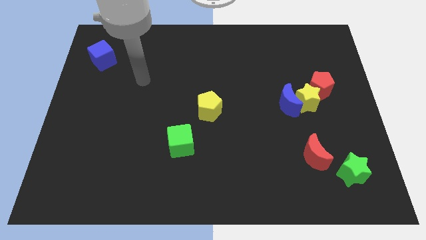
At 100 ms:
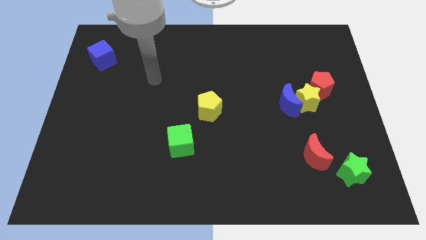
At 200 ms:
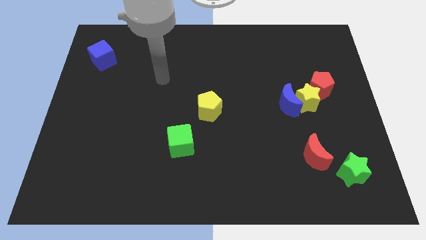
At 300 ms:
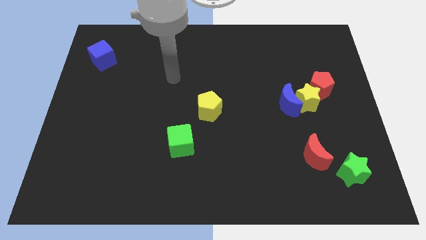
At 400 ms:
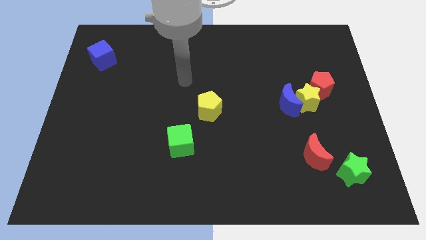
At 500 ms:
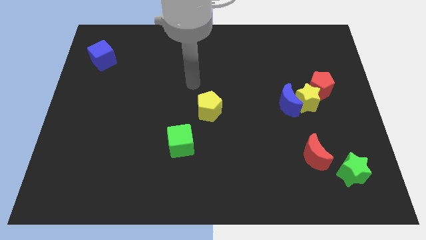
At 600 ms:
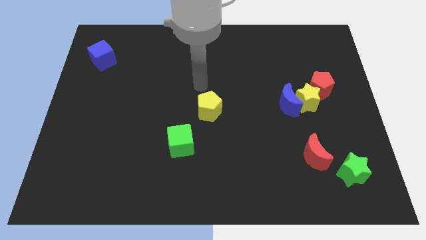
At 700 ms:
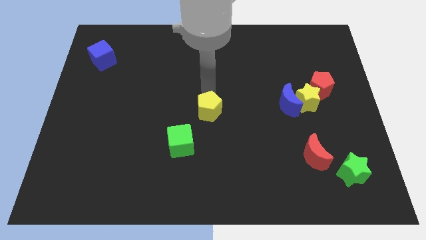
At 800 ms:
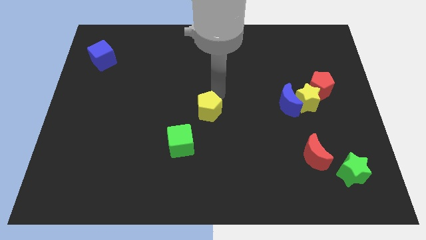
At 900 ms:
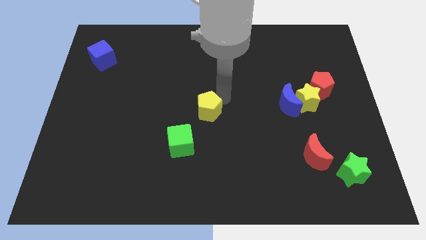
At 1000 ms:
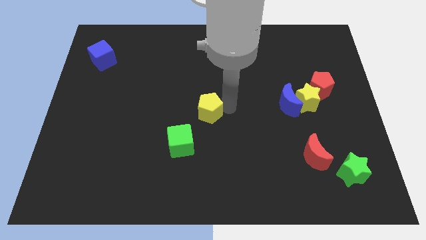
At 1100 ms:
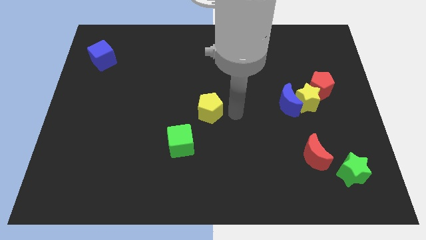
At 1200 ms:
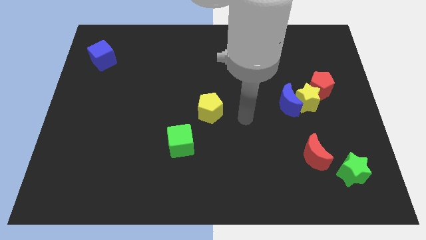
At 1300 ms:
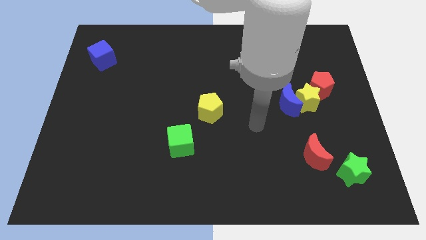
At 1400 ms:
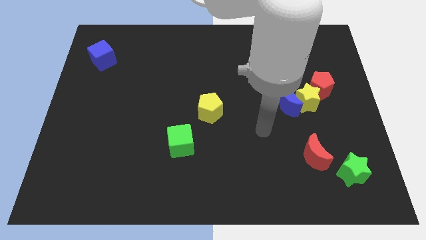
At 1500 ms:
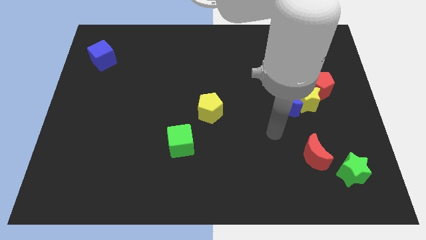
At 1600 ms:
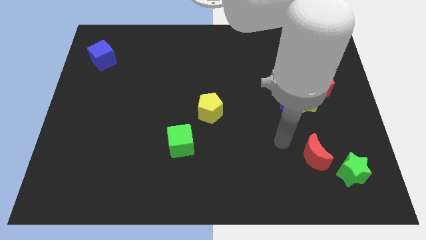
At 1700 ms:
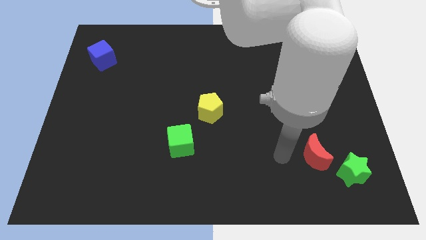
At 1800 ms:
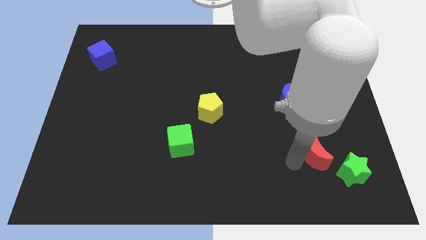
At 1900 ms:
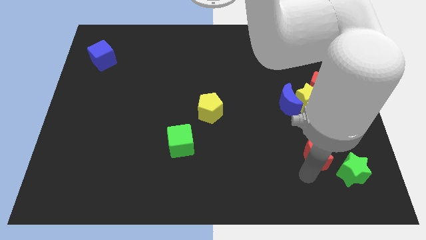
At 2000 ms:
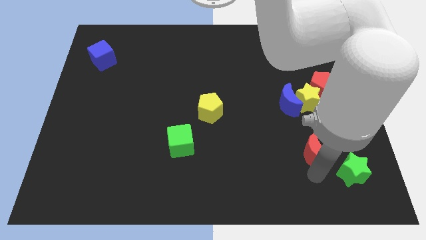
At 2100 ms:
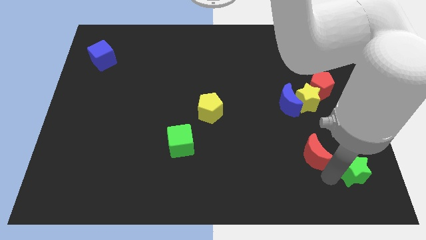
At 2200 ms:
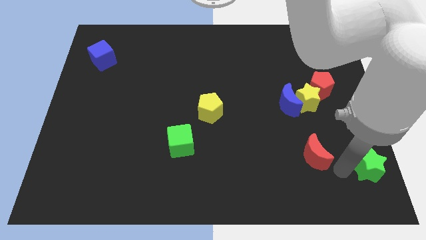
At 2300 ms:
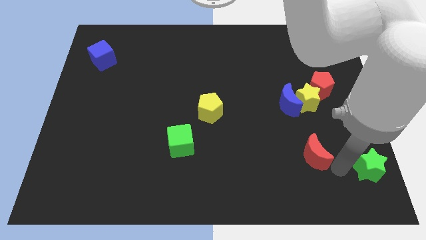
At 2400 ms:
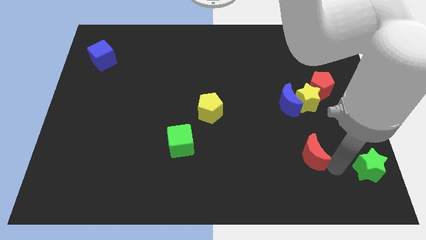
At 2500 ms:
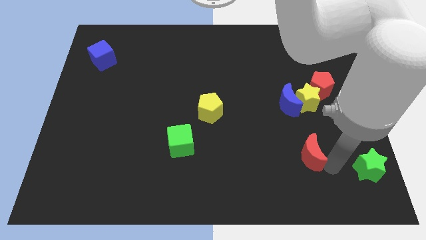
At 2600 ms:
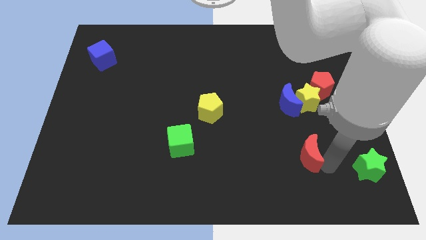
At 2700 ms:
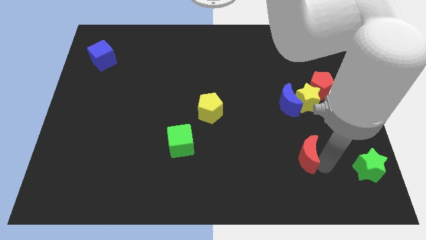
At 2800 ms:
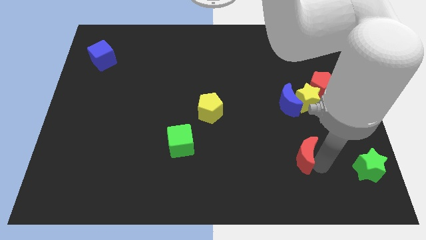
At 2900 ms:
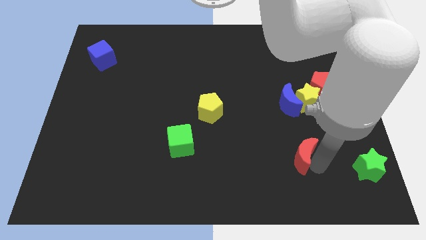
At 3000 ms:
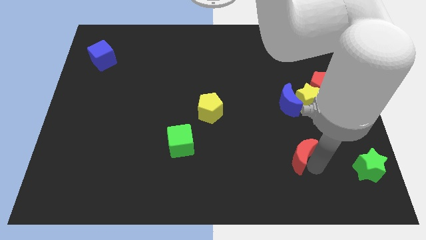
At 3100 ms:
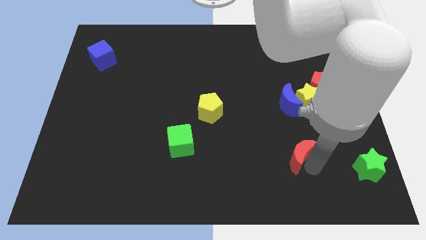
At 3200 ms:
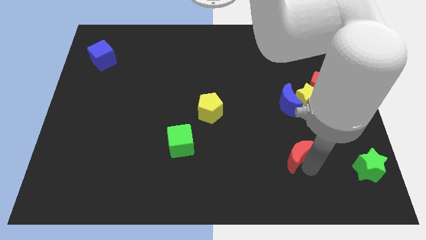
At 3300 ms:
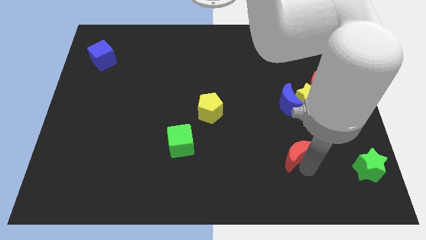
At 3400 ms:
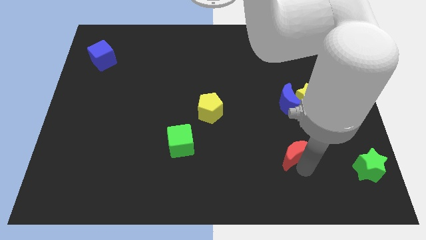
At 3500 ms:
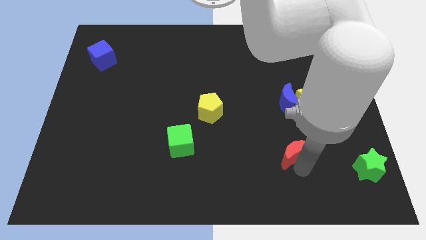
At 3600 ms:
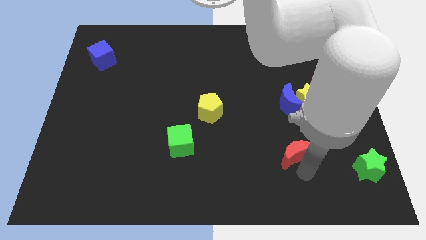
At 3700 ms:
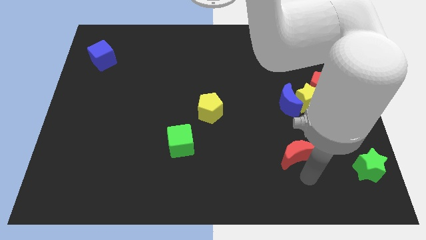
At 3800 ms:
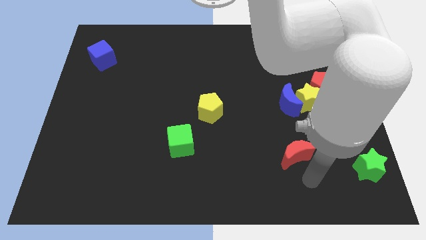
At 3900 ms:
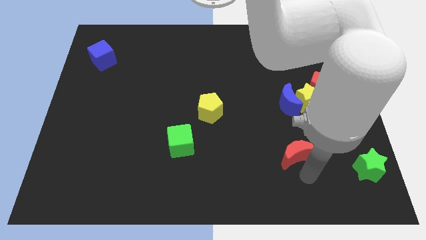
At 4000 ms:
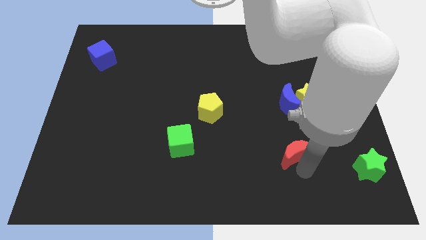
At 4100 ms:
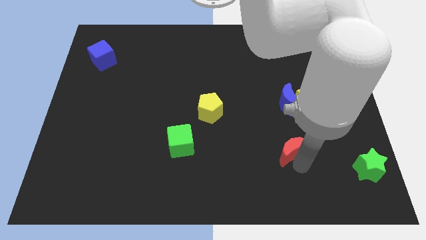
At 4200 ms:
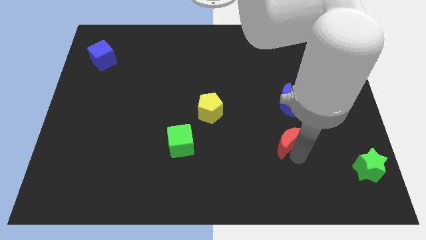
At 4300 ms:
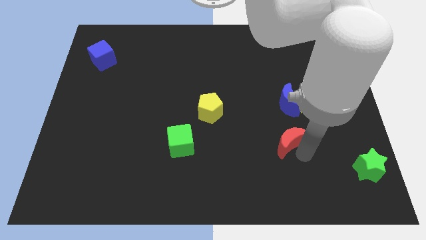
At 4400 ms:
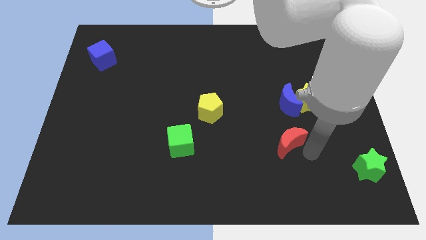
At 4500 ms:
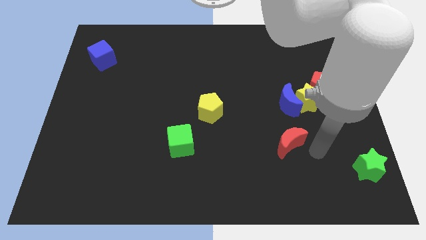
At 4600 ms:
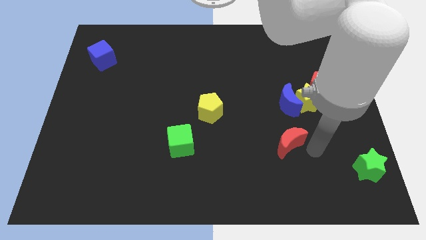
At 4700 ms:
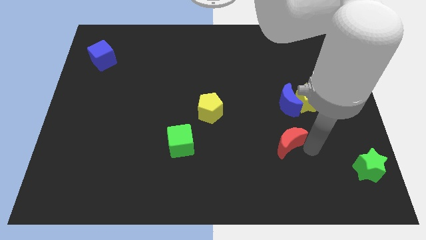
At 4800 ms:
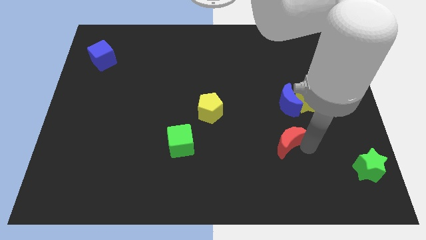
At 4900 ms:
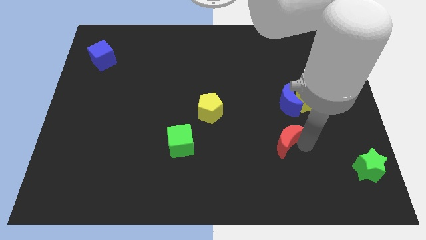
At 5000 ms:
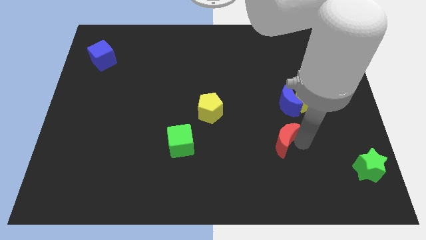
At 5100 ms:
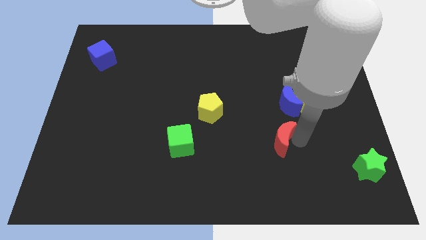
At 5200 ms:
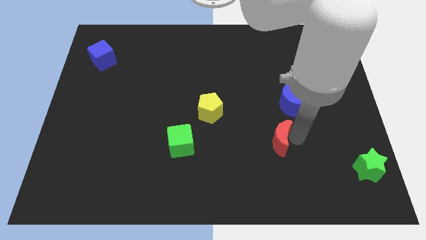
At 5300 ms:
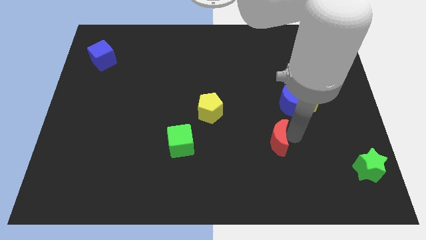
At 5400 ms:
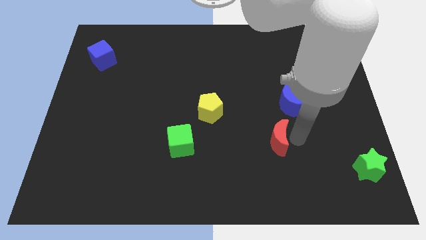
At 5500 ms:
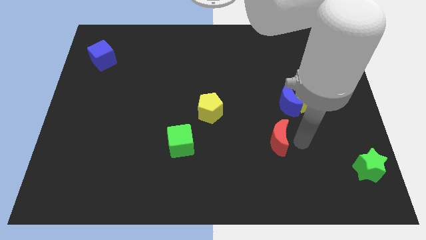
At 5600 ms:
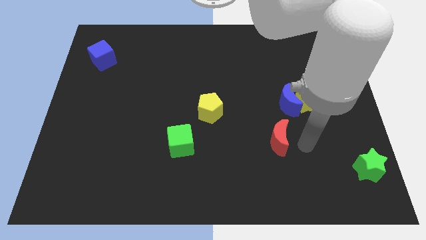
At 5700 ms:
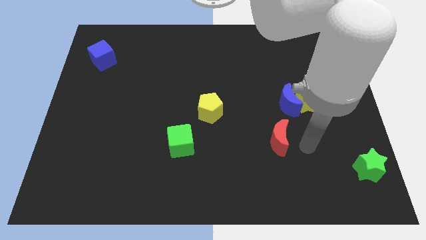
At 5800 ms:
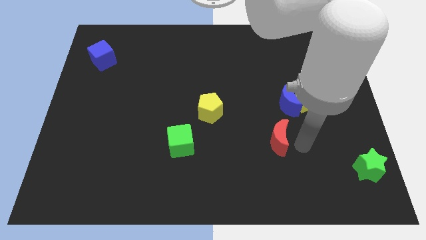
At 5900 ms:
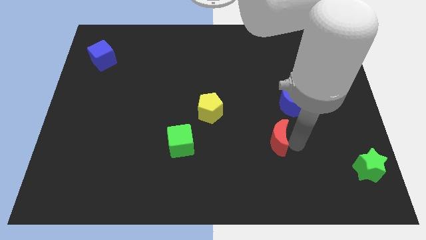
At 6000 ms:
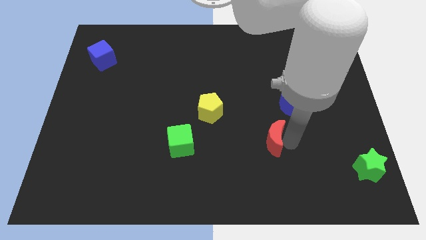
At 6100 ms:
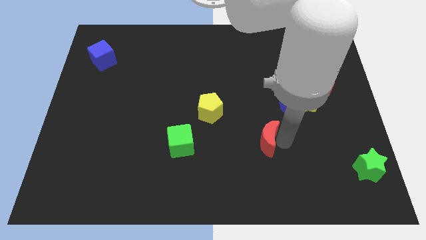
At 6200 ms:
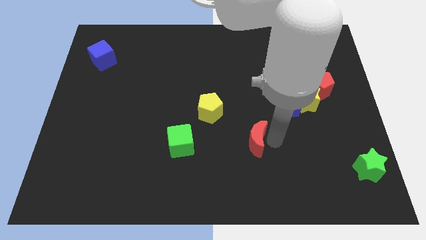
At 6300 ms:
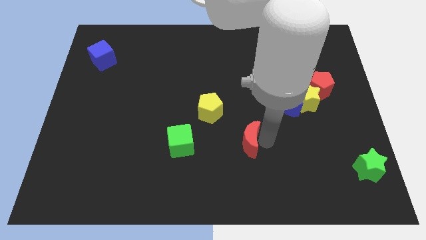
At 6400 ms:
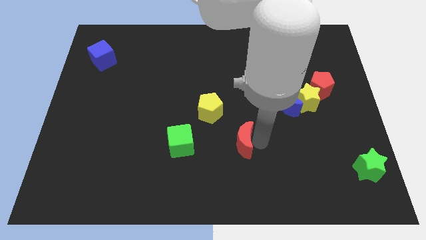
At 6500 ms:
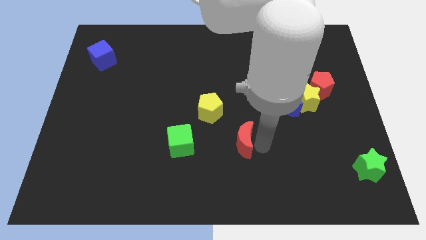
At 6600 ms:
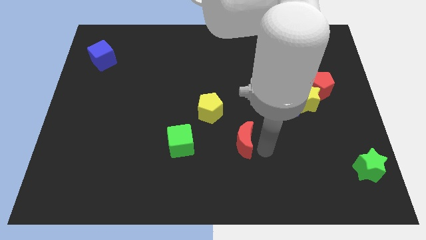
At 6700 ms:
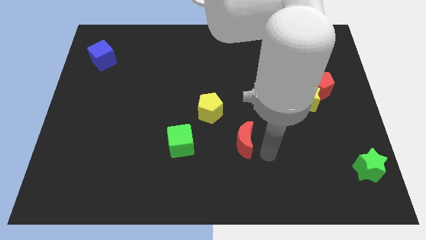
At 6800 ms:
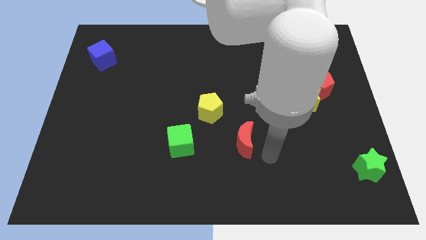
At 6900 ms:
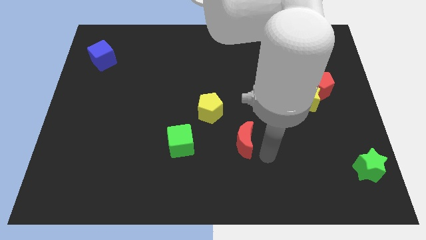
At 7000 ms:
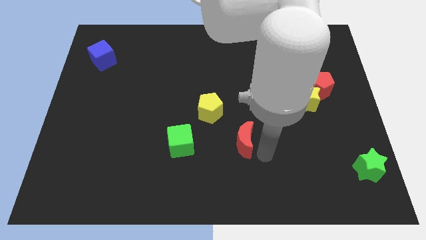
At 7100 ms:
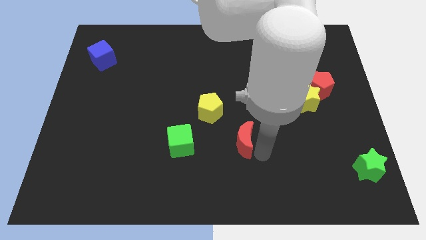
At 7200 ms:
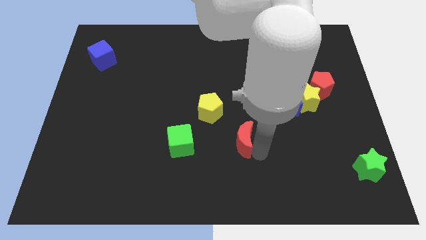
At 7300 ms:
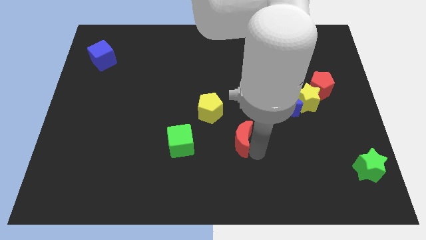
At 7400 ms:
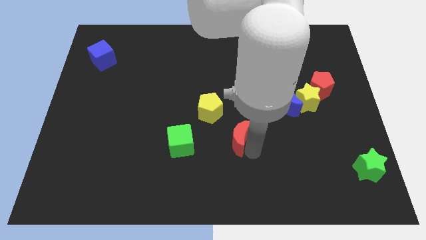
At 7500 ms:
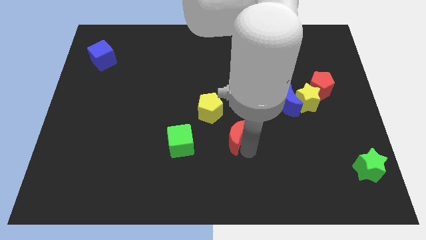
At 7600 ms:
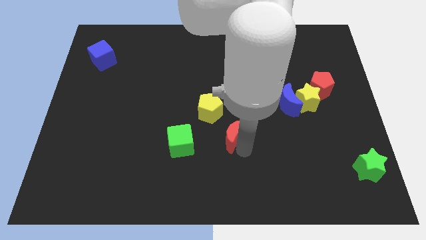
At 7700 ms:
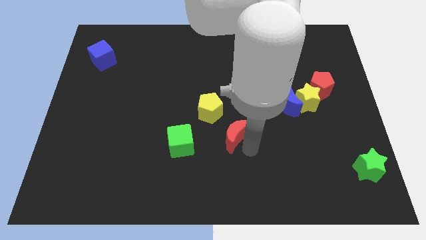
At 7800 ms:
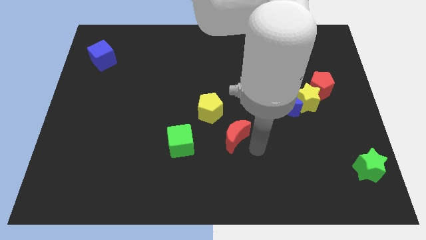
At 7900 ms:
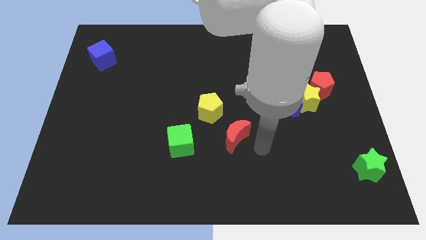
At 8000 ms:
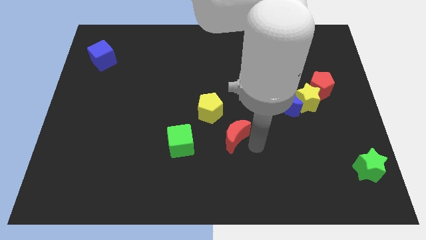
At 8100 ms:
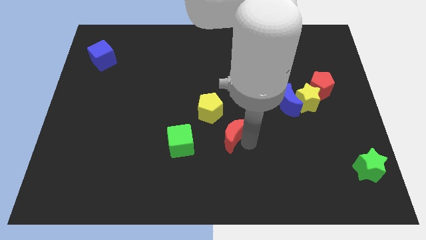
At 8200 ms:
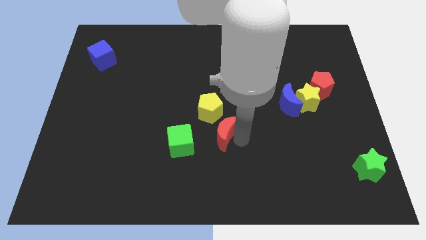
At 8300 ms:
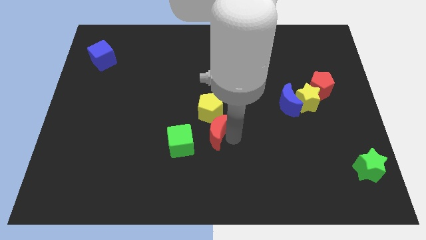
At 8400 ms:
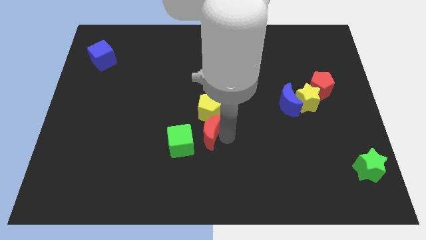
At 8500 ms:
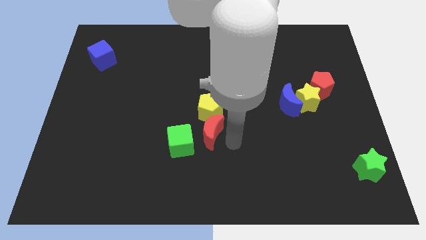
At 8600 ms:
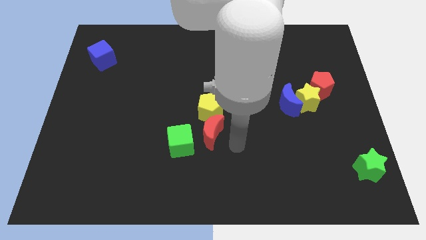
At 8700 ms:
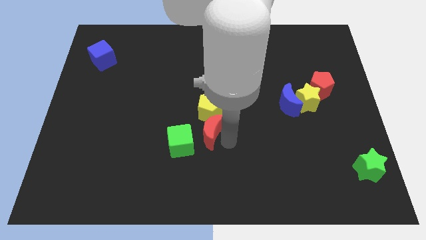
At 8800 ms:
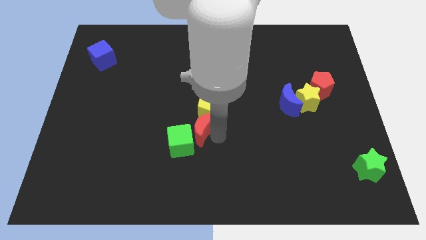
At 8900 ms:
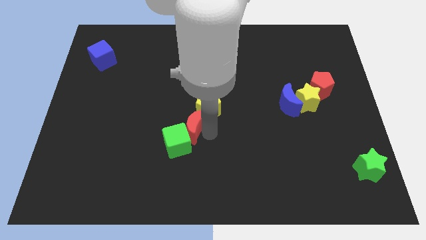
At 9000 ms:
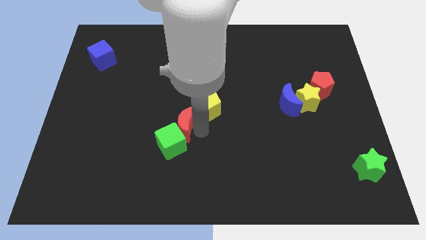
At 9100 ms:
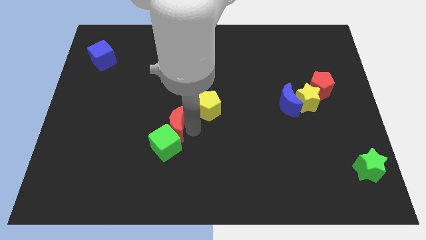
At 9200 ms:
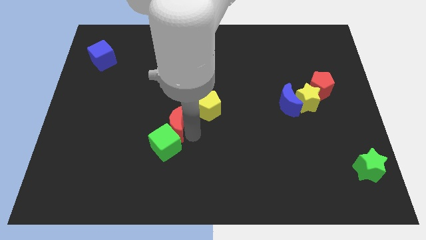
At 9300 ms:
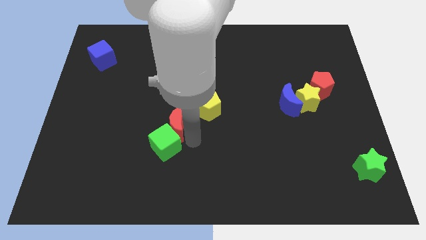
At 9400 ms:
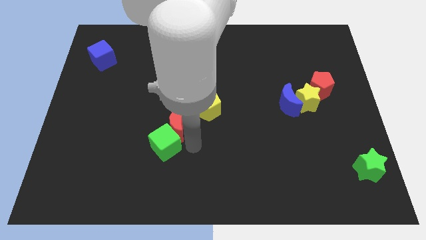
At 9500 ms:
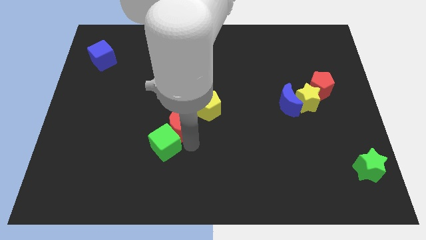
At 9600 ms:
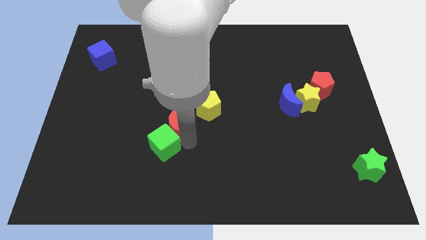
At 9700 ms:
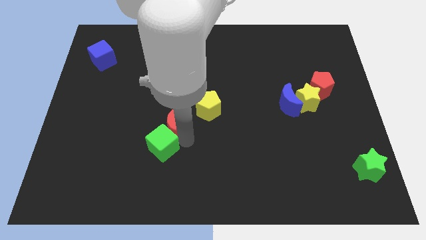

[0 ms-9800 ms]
move the red moon left of the yellow pentagon
